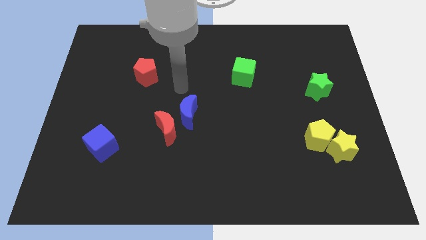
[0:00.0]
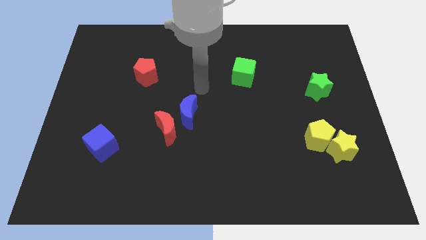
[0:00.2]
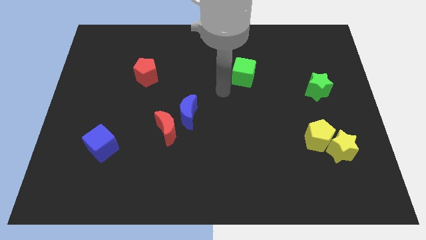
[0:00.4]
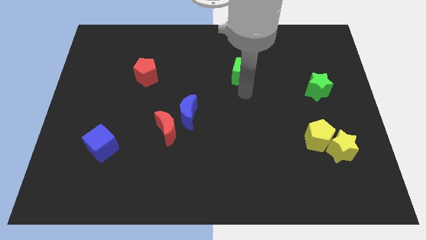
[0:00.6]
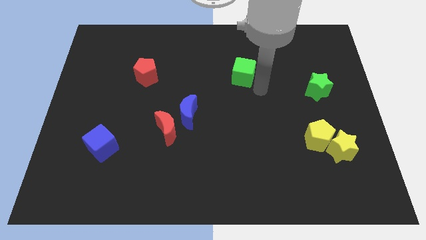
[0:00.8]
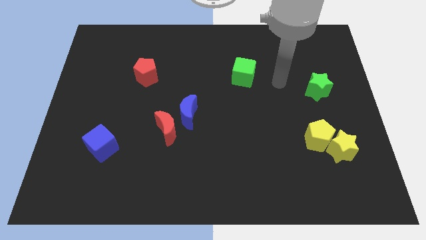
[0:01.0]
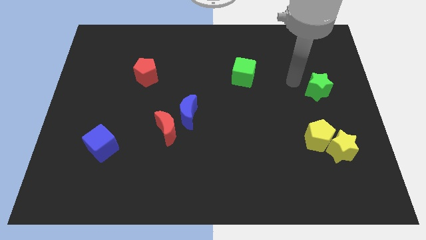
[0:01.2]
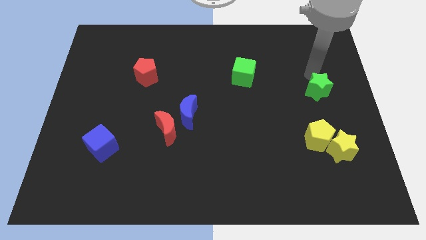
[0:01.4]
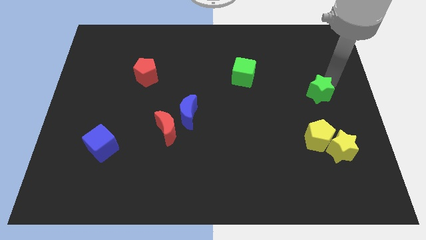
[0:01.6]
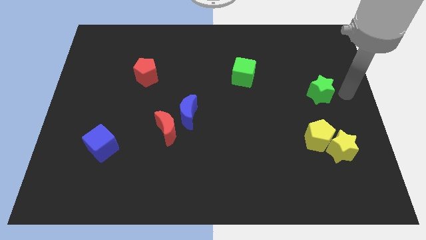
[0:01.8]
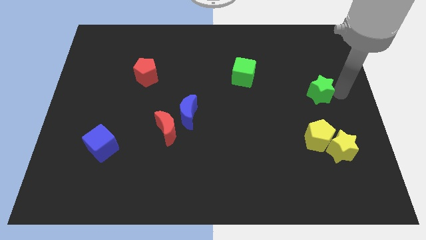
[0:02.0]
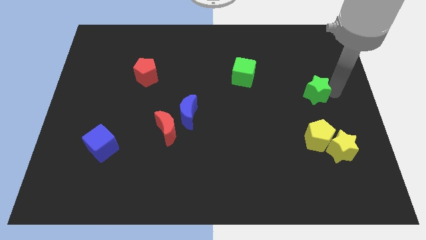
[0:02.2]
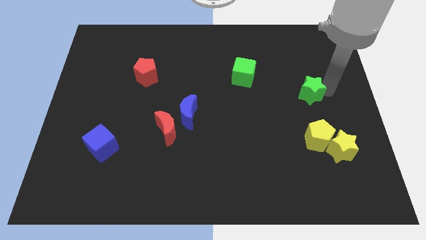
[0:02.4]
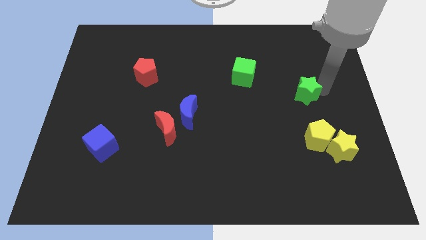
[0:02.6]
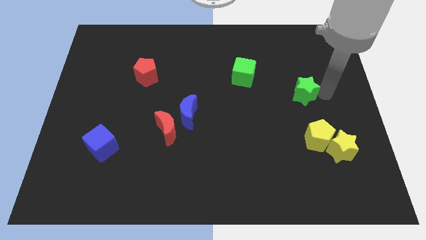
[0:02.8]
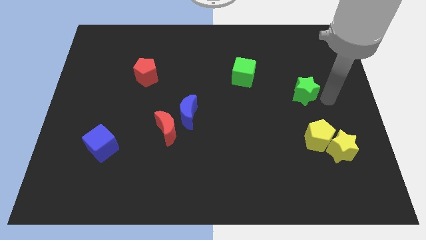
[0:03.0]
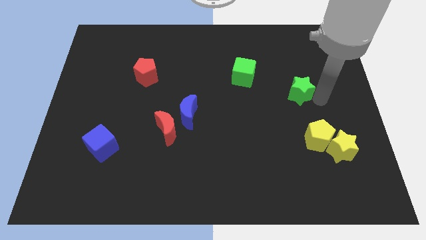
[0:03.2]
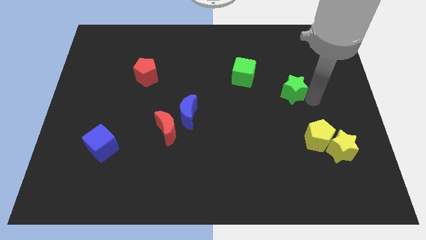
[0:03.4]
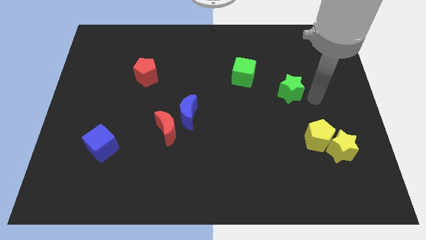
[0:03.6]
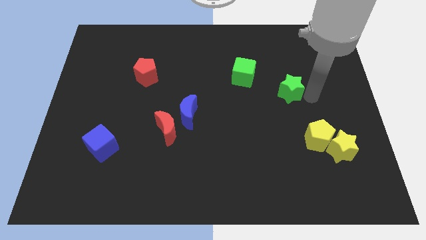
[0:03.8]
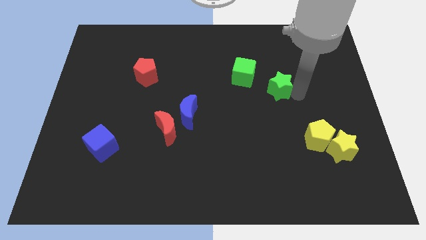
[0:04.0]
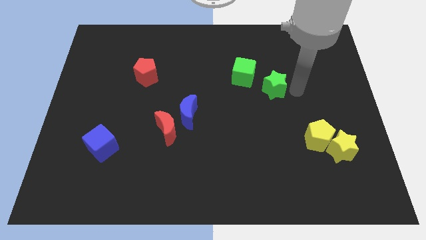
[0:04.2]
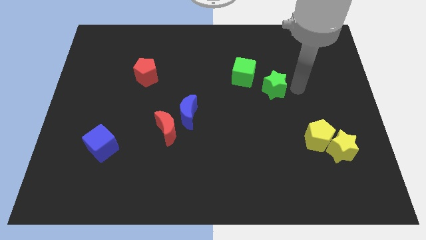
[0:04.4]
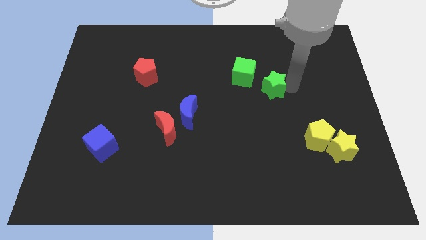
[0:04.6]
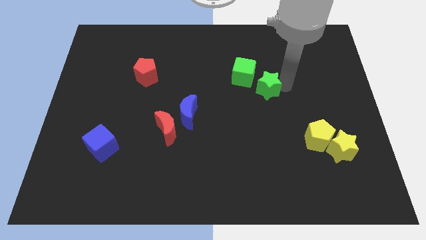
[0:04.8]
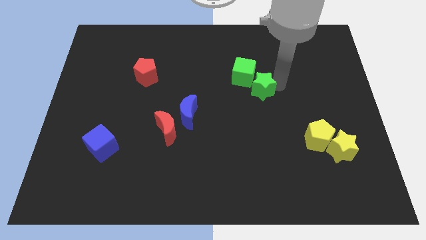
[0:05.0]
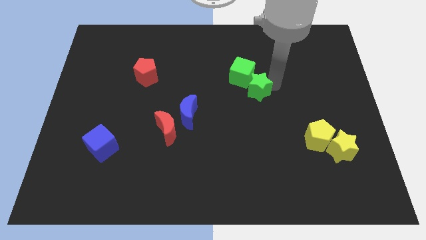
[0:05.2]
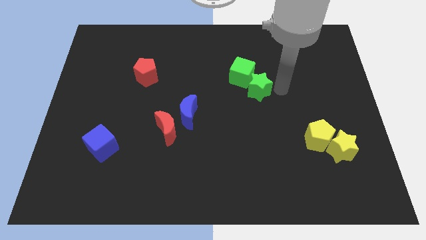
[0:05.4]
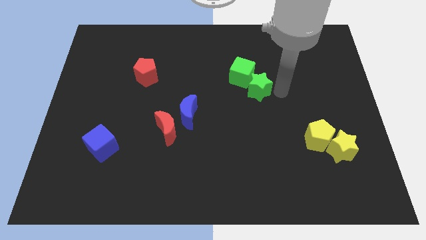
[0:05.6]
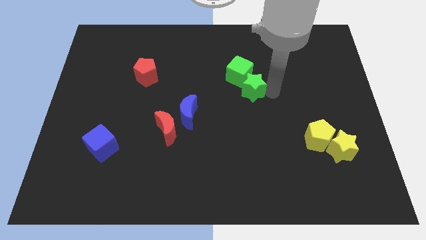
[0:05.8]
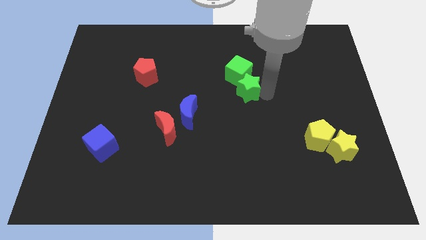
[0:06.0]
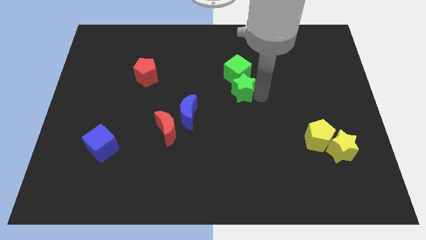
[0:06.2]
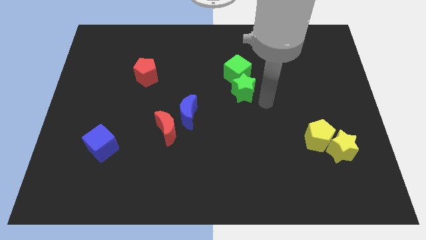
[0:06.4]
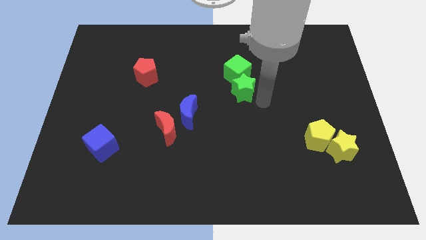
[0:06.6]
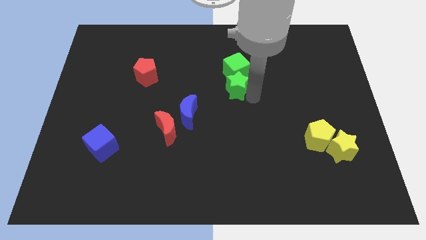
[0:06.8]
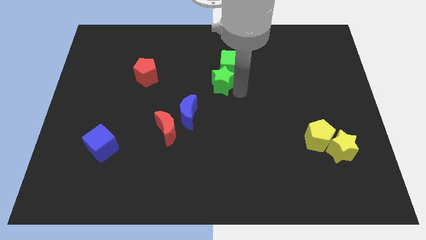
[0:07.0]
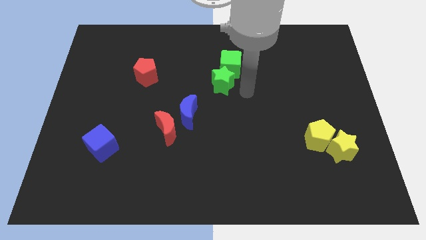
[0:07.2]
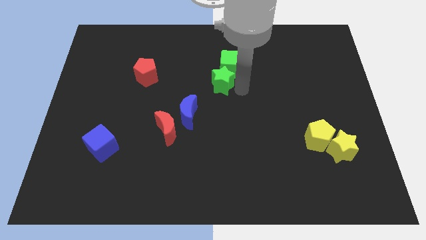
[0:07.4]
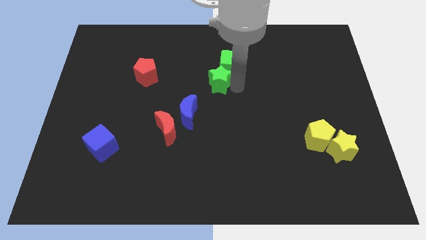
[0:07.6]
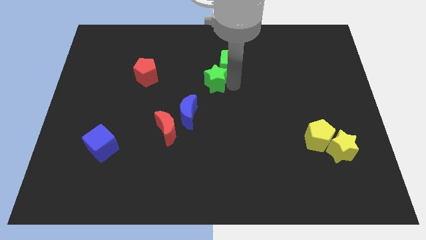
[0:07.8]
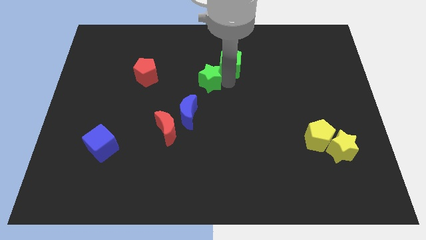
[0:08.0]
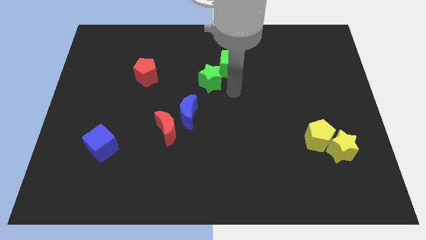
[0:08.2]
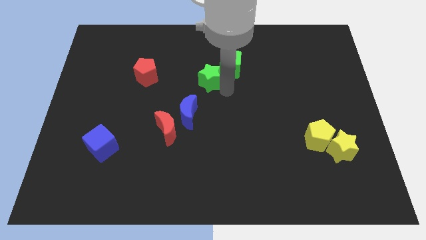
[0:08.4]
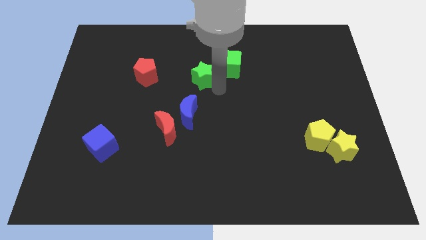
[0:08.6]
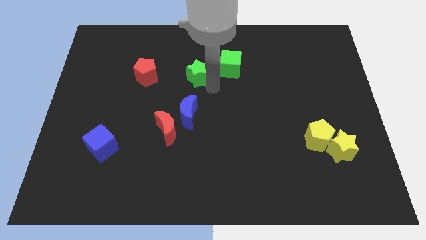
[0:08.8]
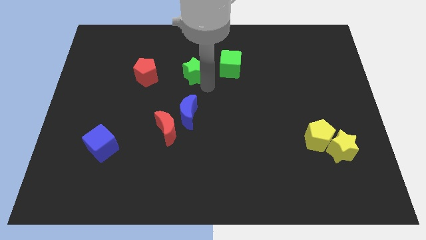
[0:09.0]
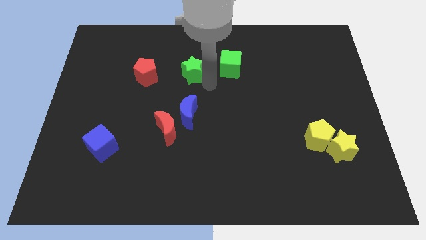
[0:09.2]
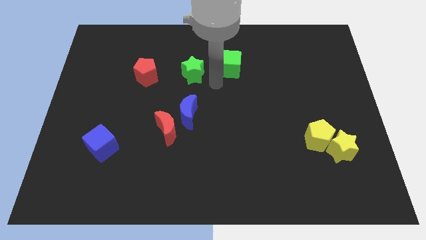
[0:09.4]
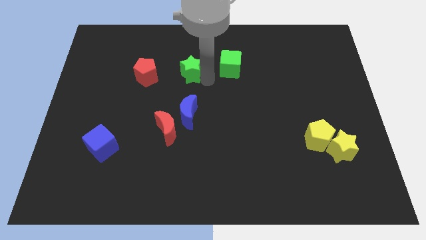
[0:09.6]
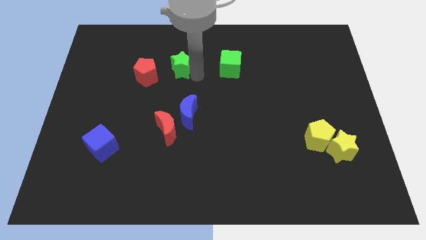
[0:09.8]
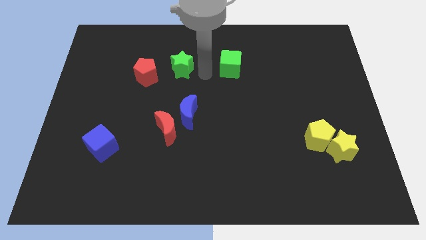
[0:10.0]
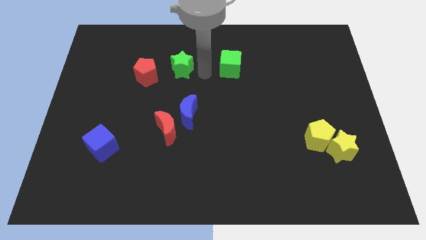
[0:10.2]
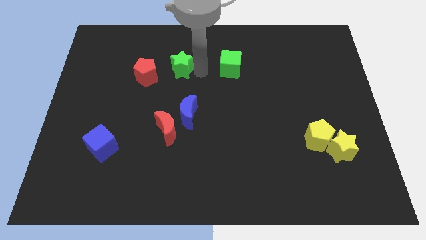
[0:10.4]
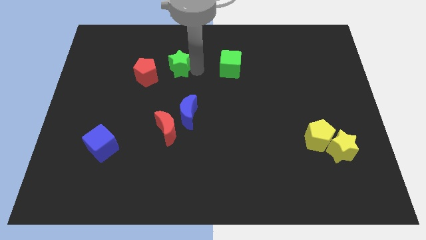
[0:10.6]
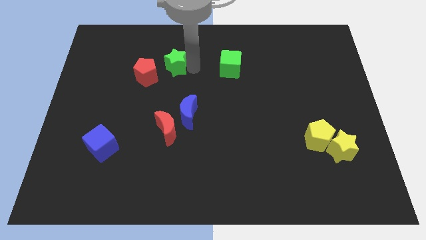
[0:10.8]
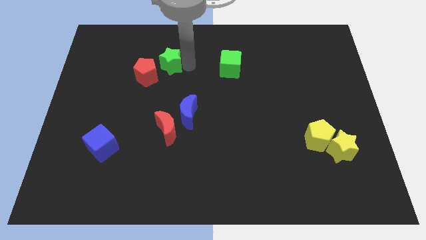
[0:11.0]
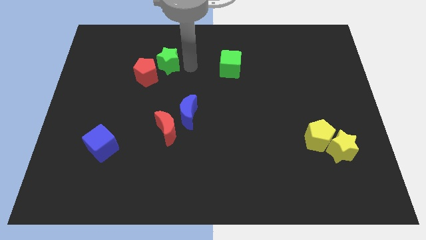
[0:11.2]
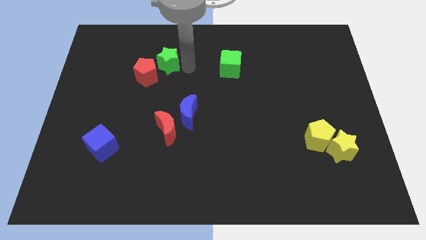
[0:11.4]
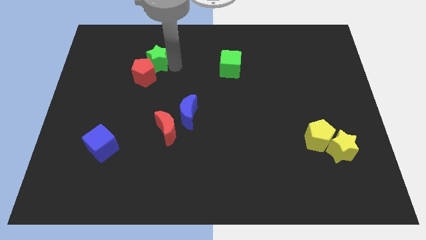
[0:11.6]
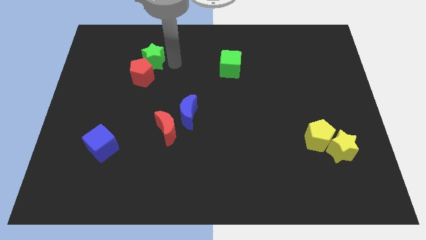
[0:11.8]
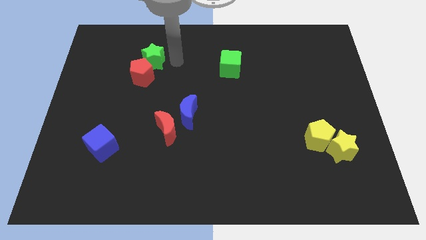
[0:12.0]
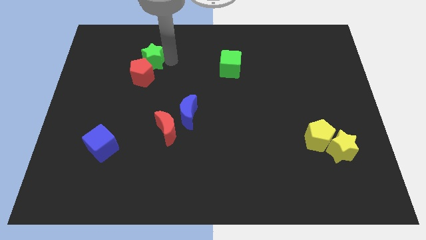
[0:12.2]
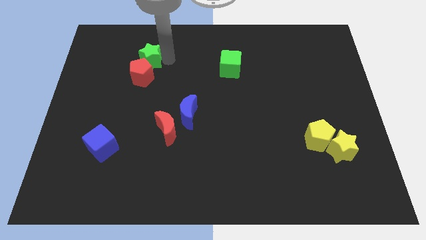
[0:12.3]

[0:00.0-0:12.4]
slide the green star to the top left of the red pentagon
